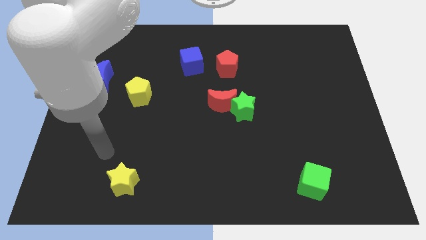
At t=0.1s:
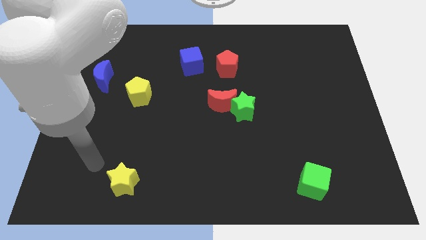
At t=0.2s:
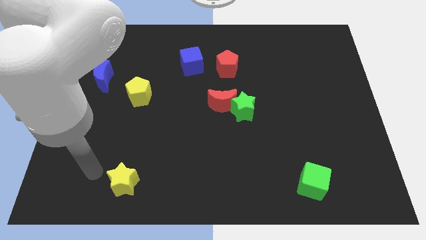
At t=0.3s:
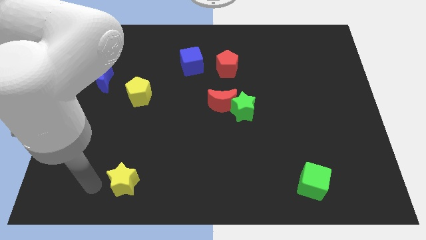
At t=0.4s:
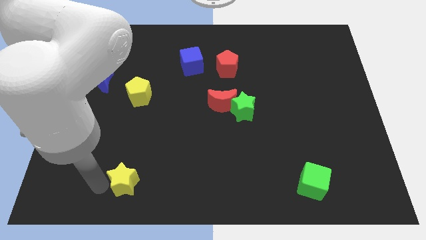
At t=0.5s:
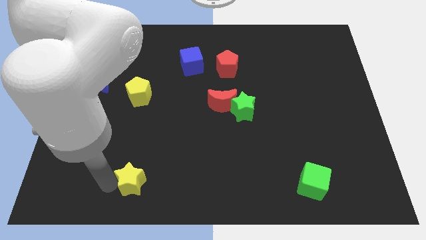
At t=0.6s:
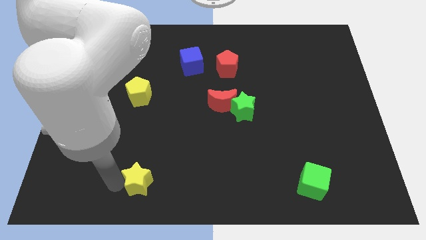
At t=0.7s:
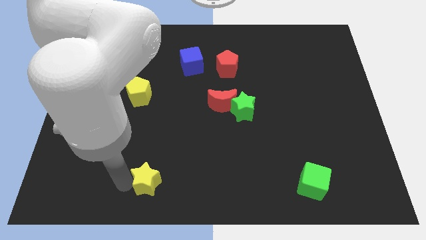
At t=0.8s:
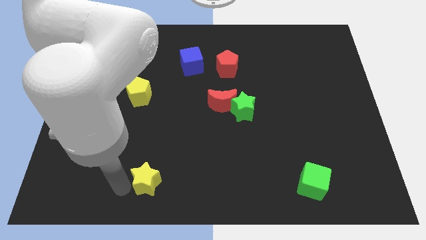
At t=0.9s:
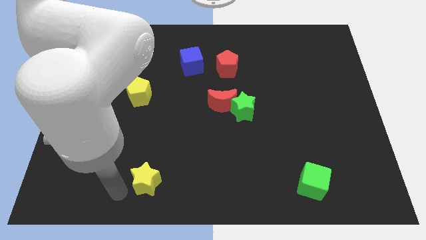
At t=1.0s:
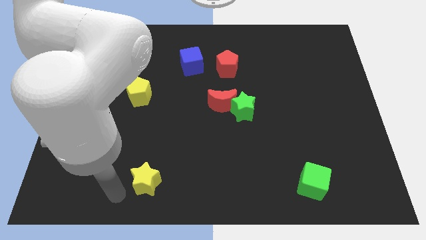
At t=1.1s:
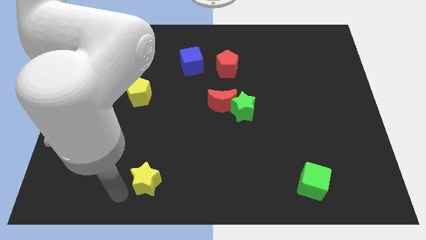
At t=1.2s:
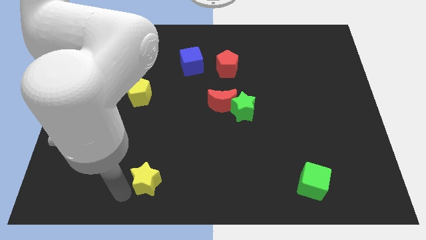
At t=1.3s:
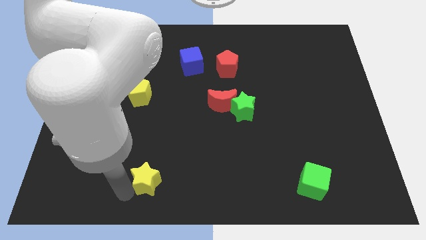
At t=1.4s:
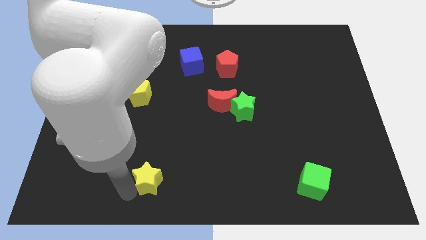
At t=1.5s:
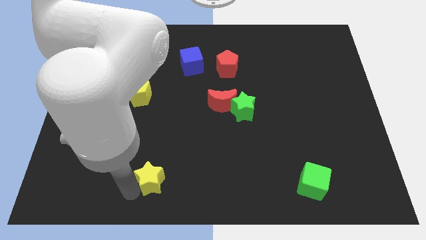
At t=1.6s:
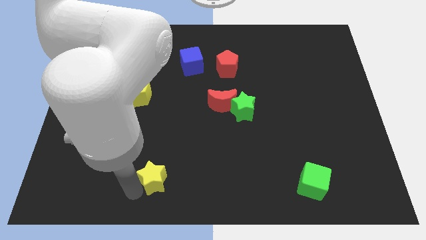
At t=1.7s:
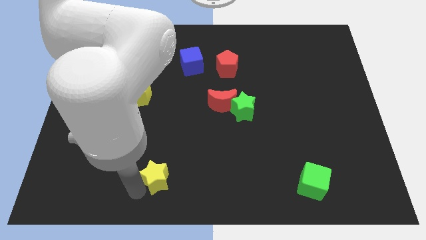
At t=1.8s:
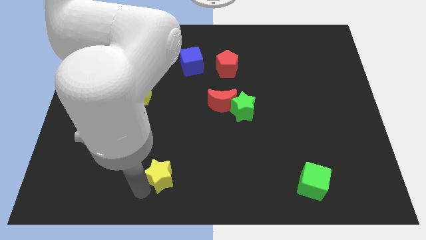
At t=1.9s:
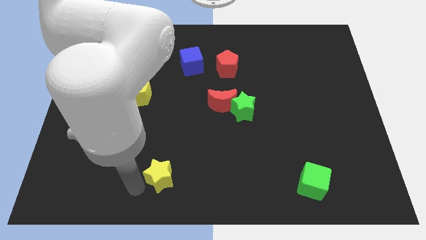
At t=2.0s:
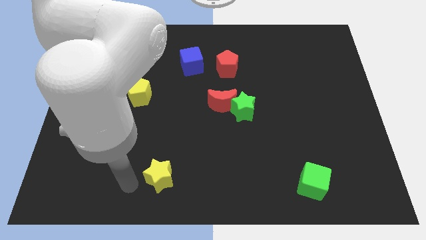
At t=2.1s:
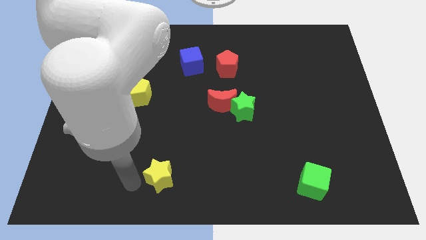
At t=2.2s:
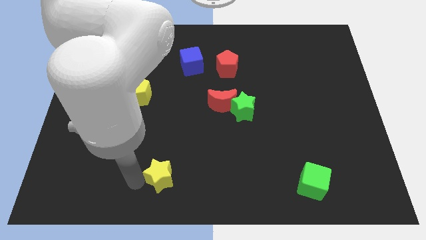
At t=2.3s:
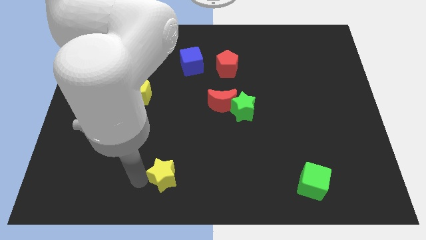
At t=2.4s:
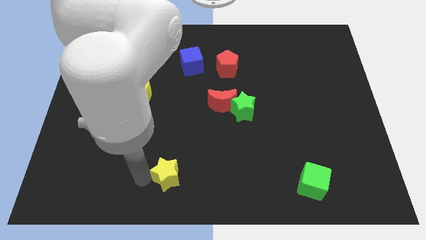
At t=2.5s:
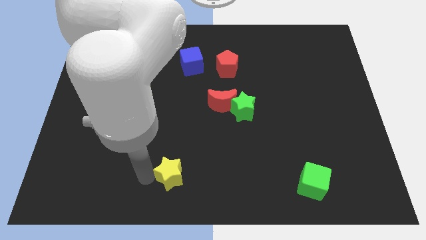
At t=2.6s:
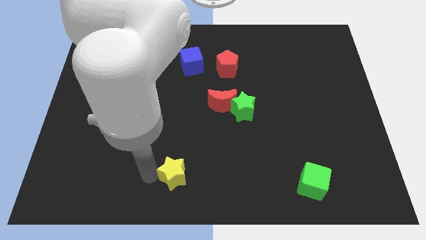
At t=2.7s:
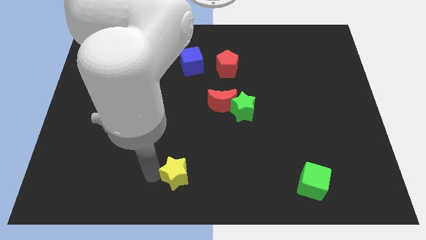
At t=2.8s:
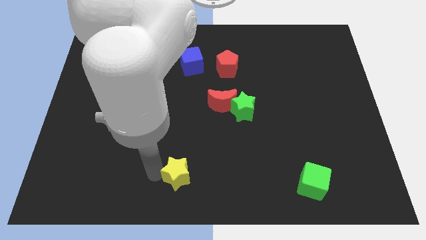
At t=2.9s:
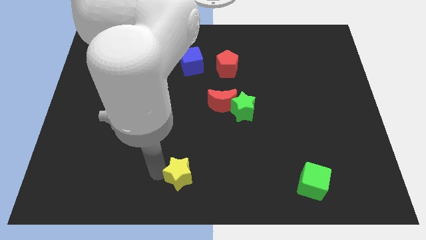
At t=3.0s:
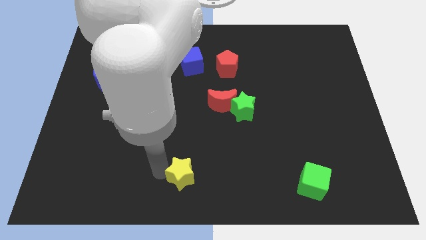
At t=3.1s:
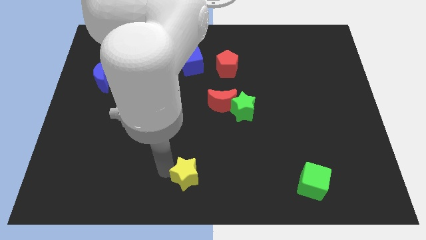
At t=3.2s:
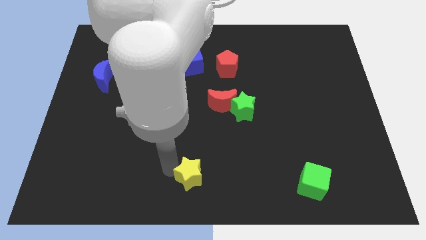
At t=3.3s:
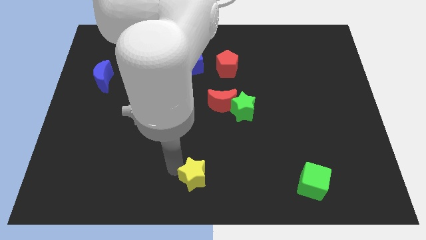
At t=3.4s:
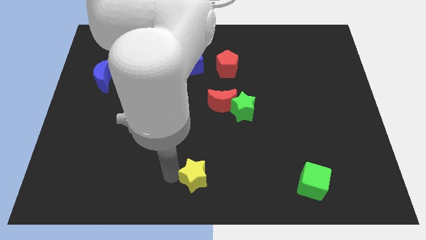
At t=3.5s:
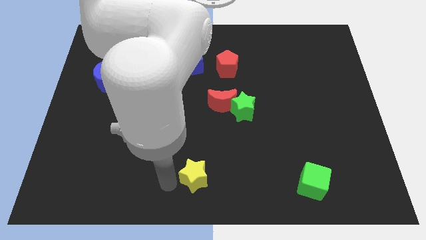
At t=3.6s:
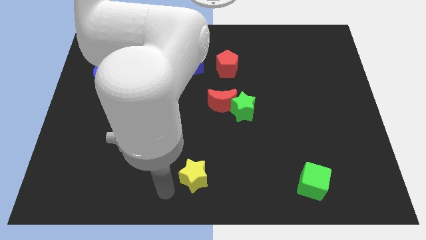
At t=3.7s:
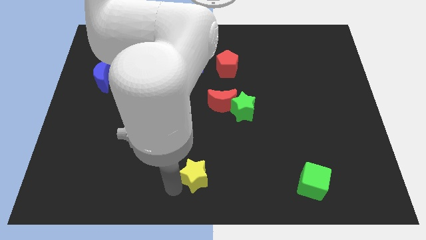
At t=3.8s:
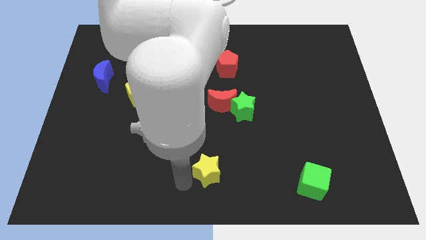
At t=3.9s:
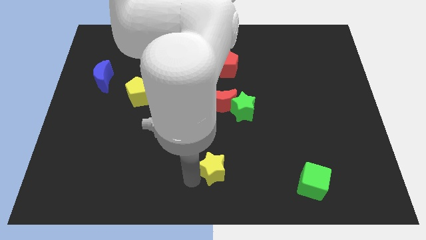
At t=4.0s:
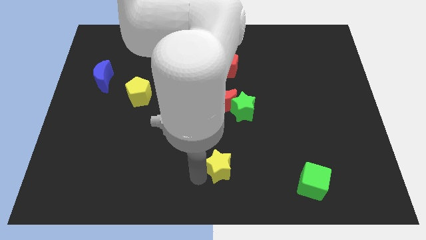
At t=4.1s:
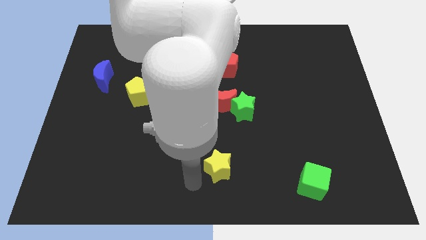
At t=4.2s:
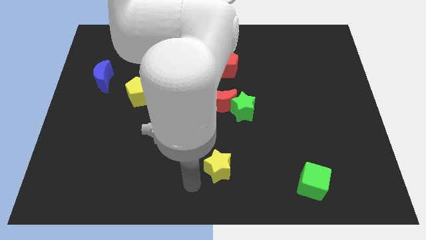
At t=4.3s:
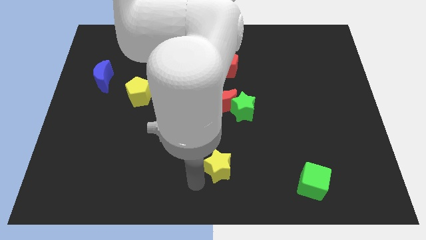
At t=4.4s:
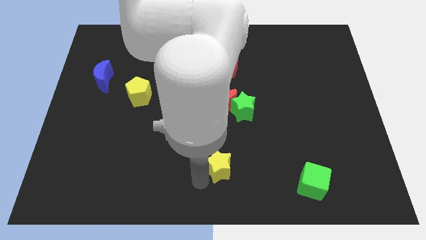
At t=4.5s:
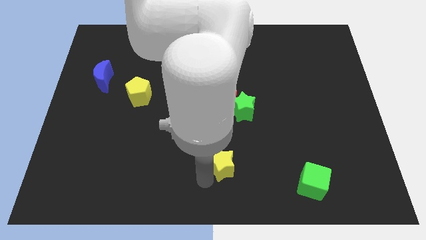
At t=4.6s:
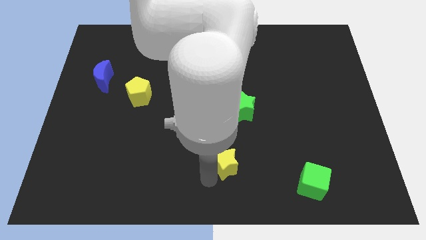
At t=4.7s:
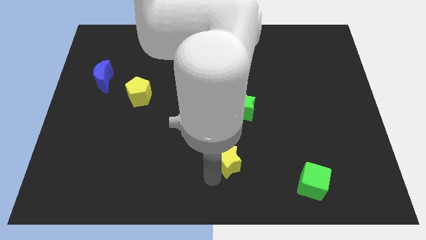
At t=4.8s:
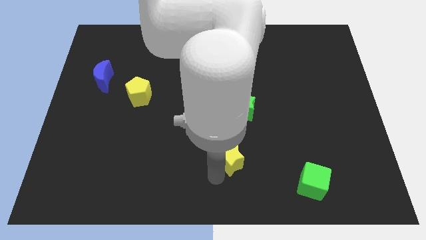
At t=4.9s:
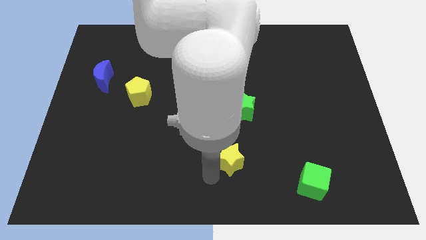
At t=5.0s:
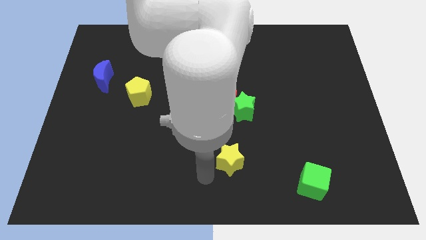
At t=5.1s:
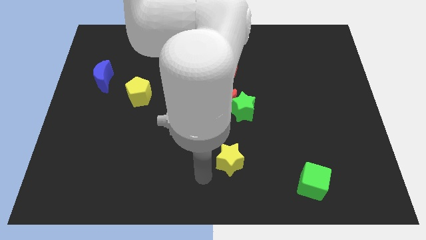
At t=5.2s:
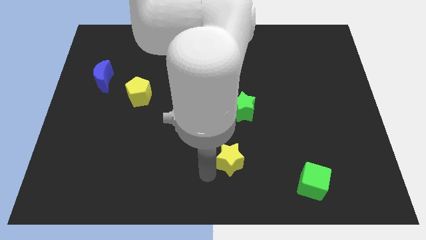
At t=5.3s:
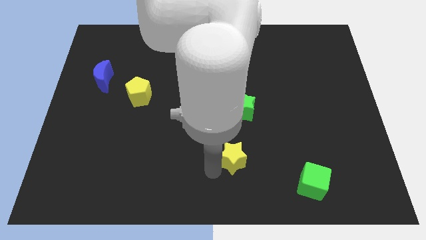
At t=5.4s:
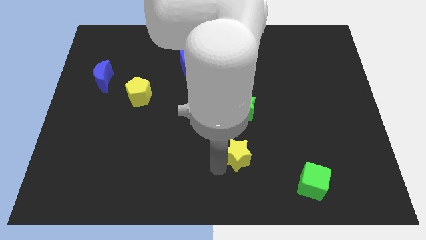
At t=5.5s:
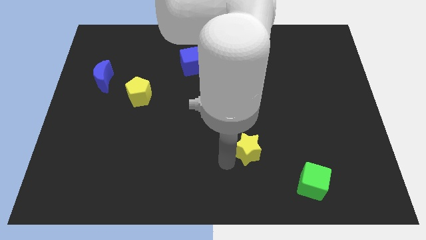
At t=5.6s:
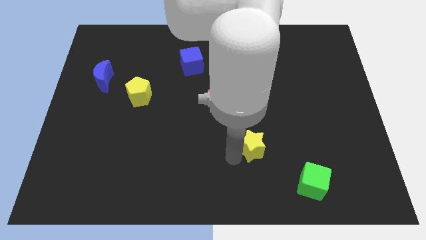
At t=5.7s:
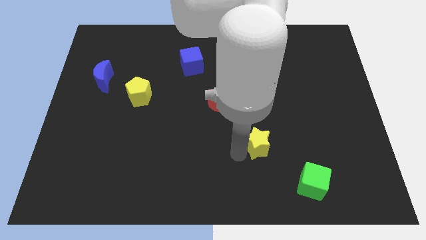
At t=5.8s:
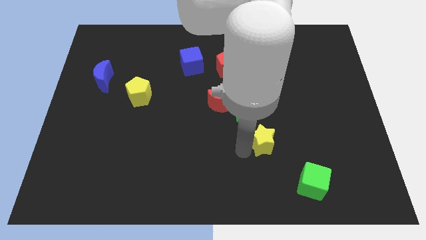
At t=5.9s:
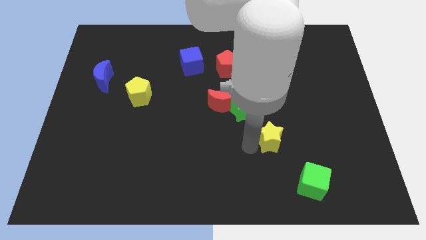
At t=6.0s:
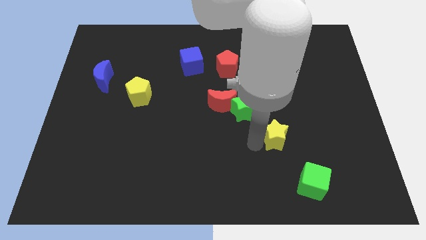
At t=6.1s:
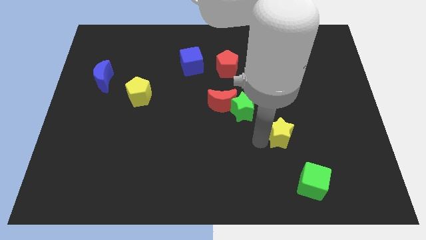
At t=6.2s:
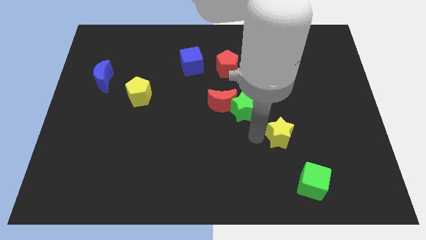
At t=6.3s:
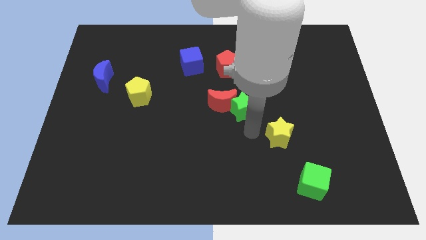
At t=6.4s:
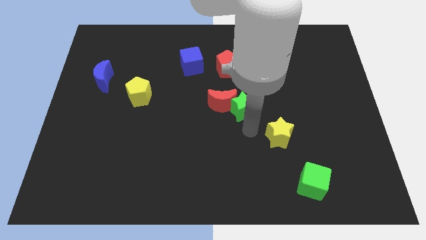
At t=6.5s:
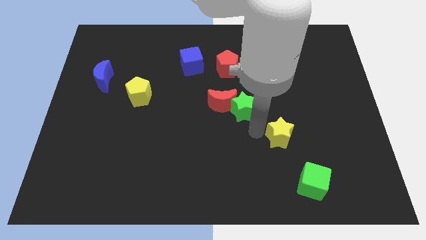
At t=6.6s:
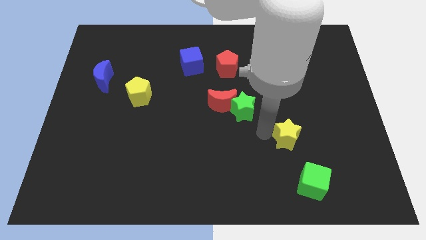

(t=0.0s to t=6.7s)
move the yellow star to the top side of the green cube
